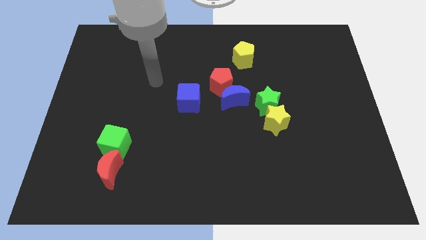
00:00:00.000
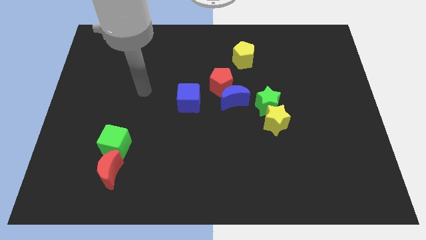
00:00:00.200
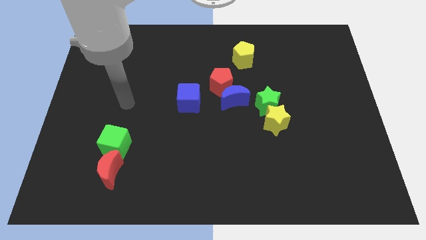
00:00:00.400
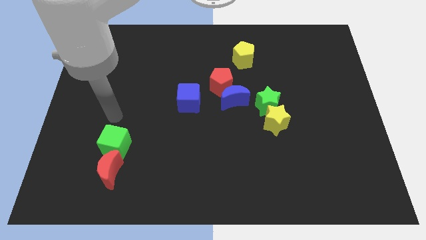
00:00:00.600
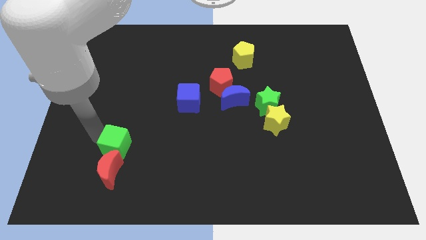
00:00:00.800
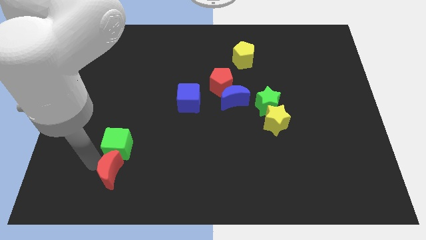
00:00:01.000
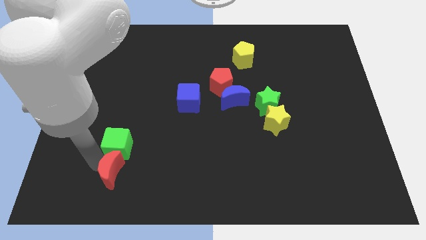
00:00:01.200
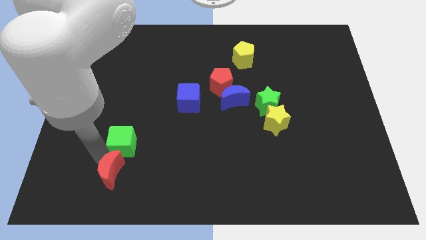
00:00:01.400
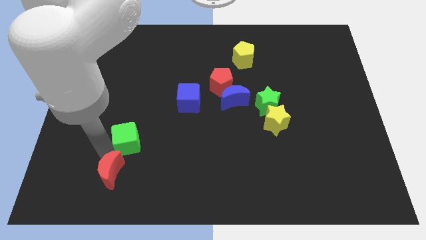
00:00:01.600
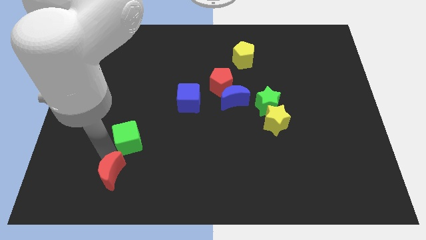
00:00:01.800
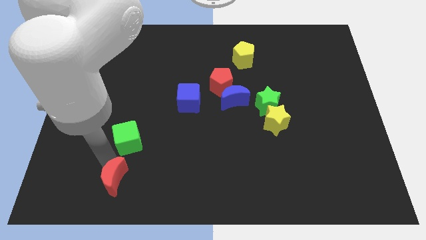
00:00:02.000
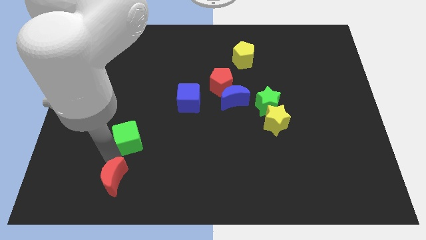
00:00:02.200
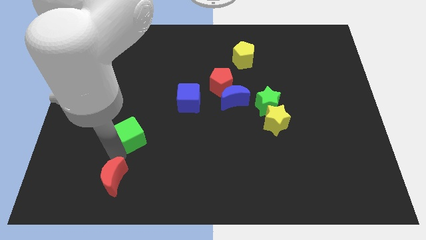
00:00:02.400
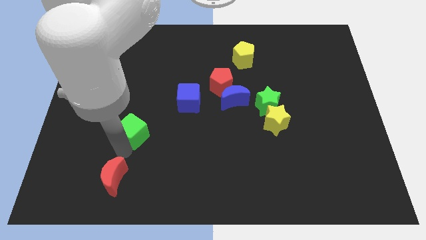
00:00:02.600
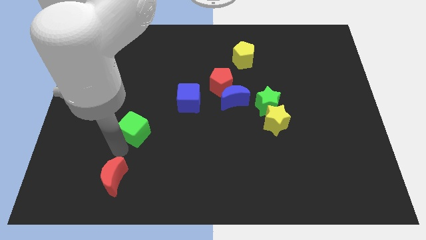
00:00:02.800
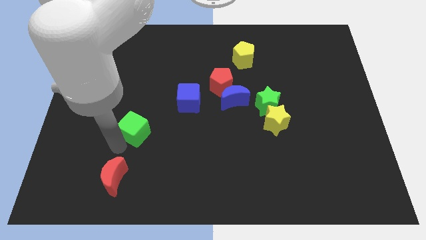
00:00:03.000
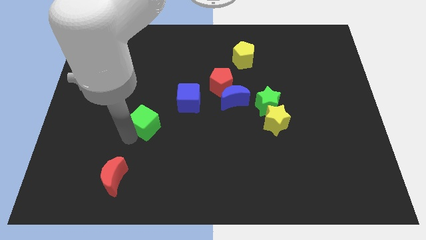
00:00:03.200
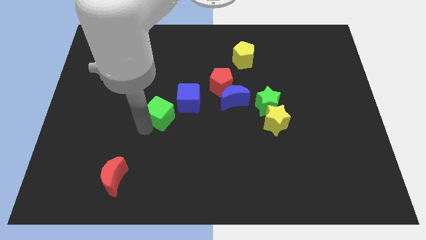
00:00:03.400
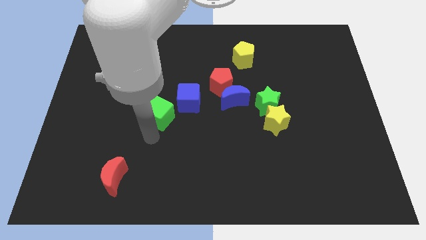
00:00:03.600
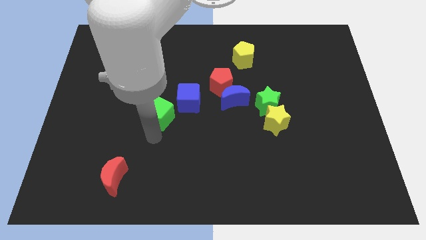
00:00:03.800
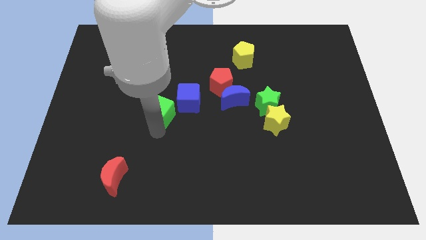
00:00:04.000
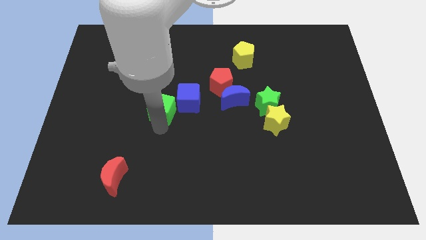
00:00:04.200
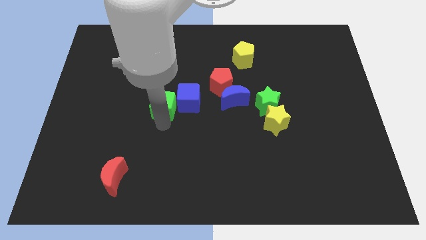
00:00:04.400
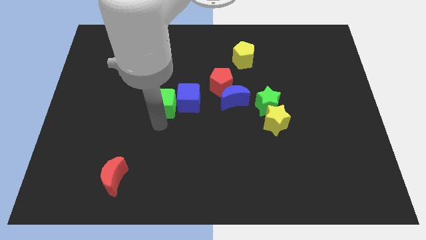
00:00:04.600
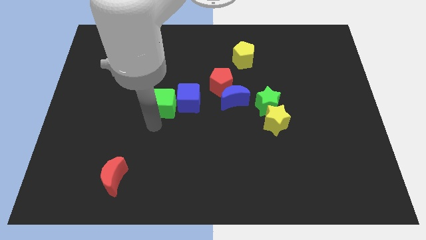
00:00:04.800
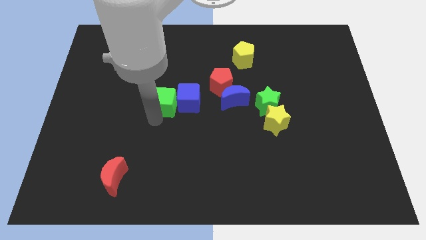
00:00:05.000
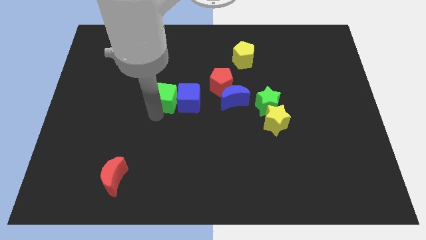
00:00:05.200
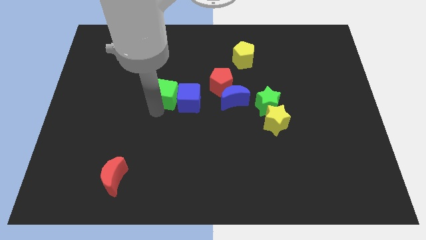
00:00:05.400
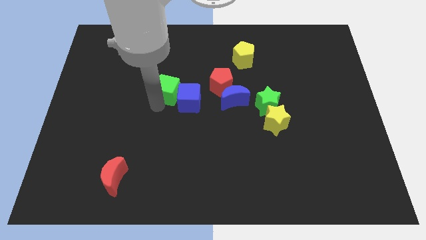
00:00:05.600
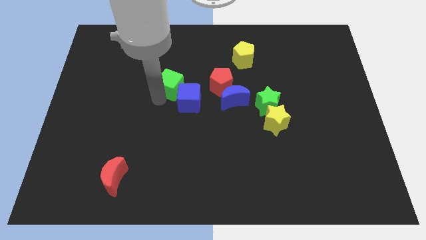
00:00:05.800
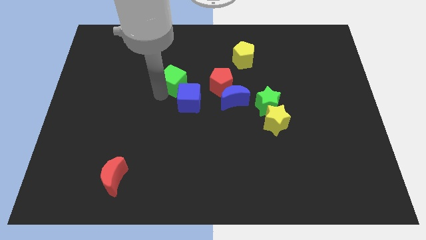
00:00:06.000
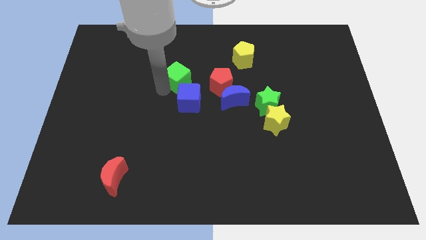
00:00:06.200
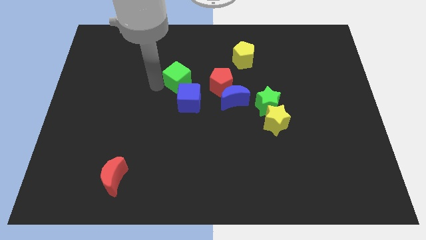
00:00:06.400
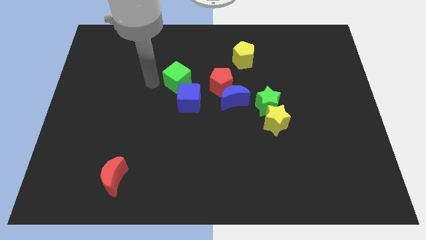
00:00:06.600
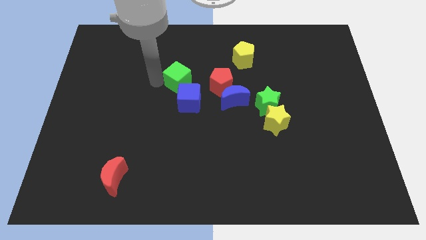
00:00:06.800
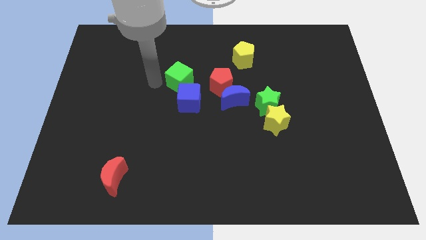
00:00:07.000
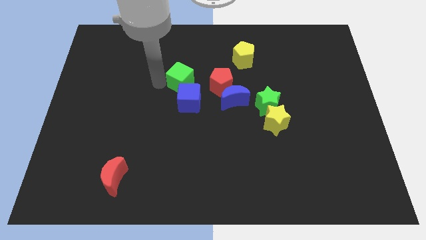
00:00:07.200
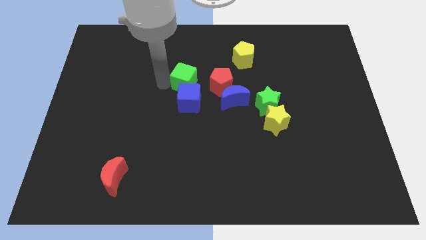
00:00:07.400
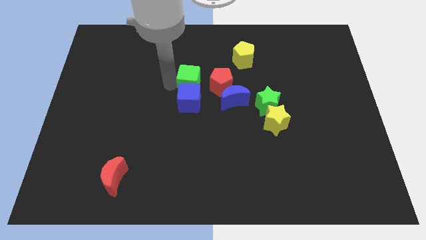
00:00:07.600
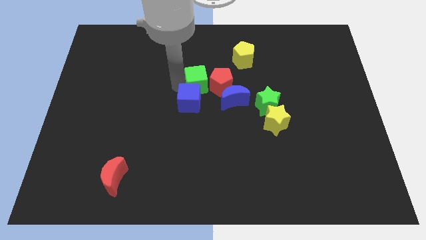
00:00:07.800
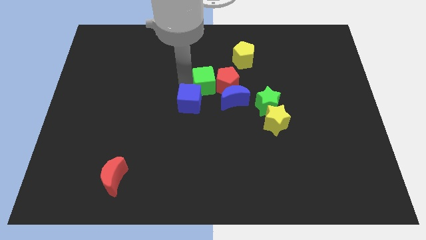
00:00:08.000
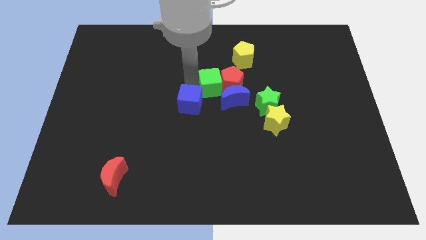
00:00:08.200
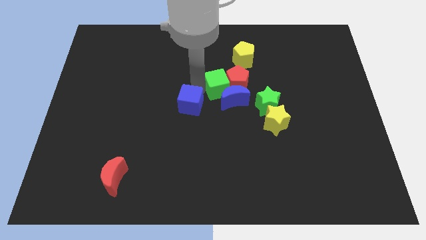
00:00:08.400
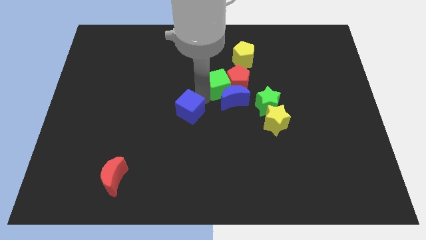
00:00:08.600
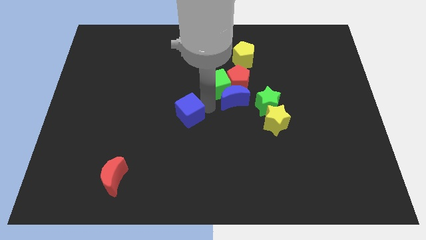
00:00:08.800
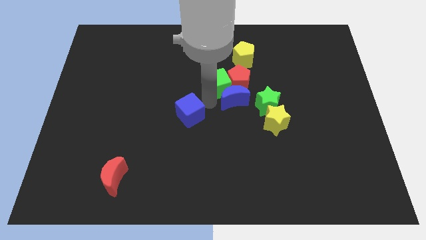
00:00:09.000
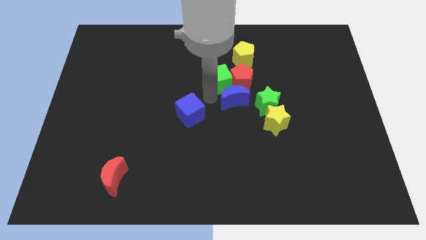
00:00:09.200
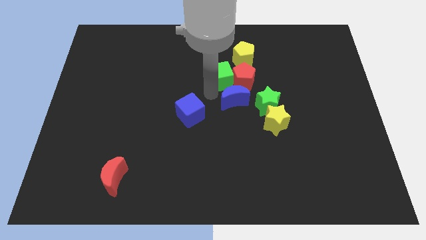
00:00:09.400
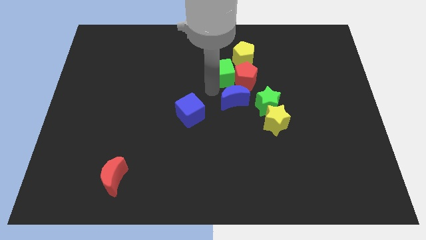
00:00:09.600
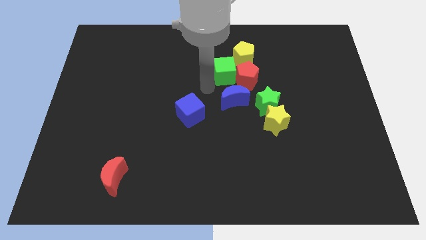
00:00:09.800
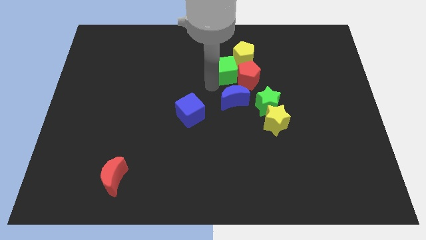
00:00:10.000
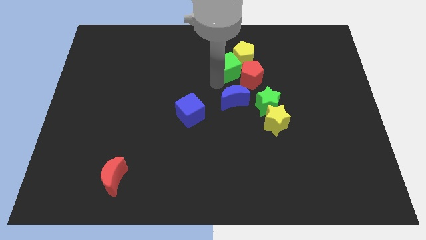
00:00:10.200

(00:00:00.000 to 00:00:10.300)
move the green cube to the yellow pentagon

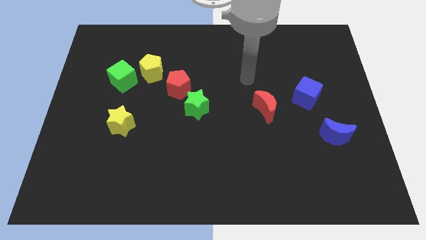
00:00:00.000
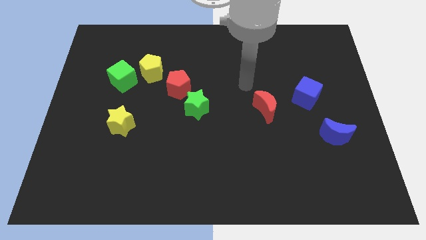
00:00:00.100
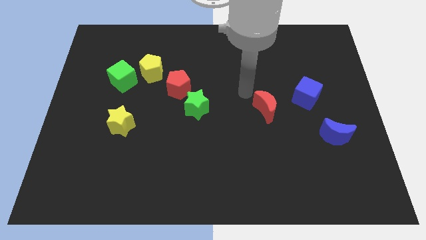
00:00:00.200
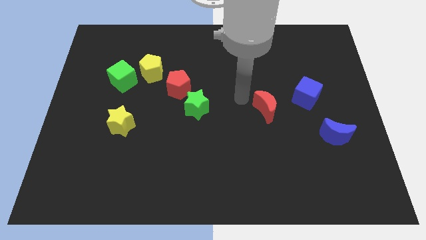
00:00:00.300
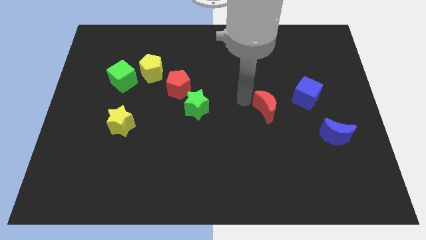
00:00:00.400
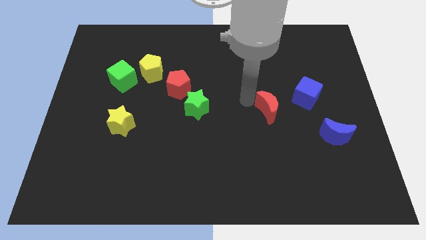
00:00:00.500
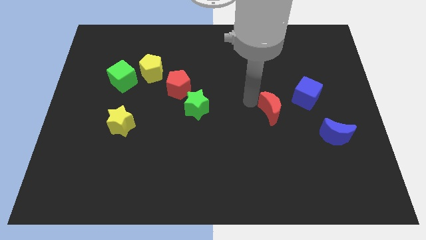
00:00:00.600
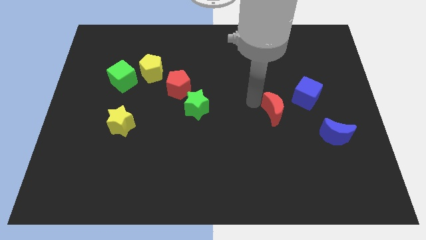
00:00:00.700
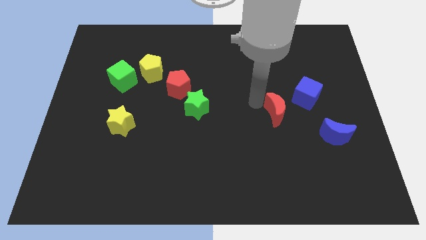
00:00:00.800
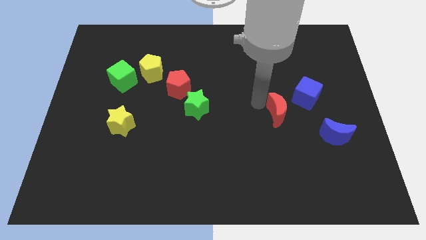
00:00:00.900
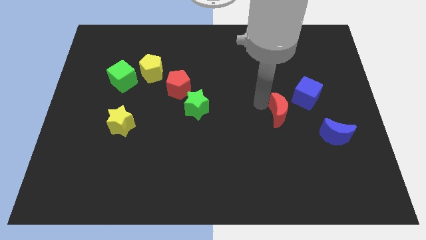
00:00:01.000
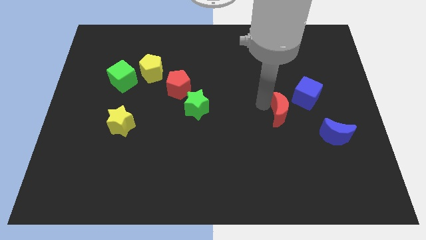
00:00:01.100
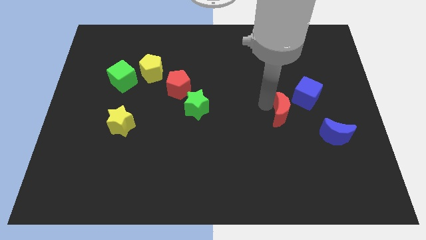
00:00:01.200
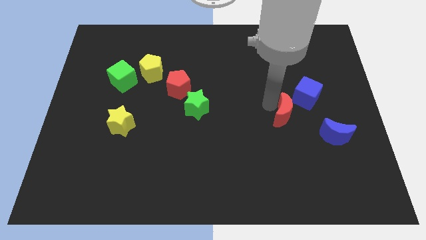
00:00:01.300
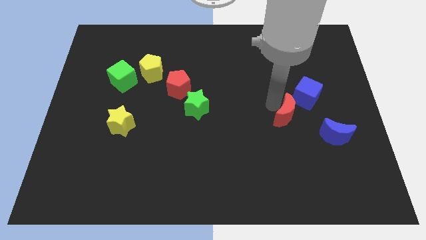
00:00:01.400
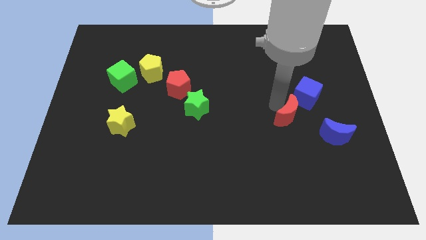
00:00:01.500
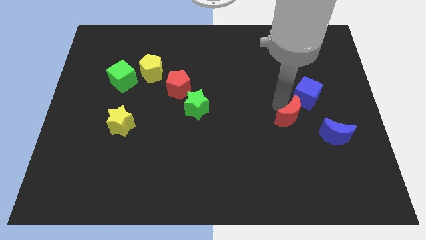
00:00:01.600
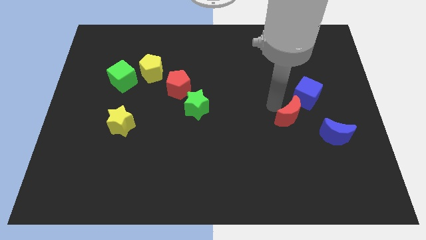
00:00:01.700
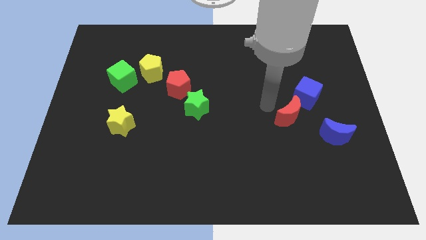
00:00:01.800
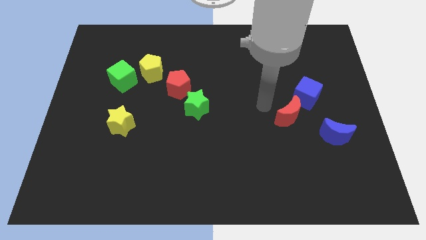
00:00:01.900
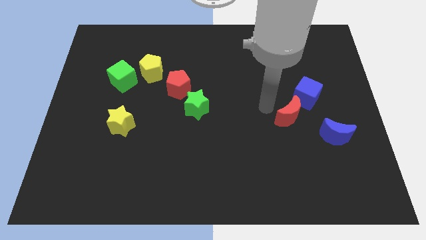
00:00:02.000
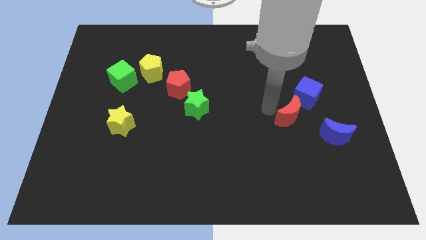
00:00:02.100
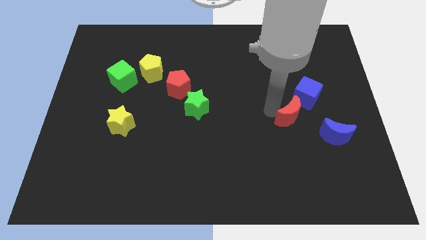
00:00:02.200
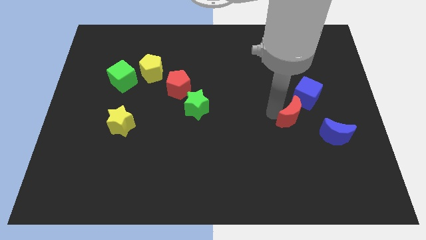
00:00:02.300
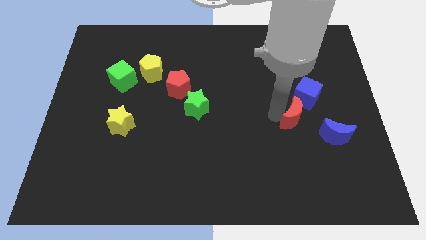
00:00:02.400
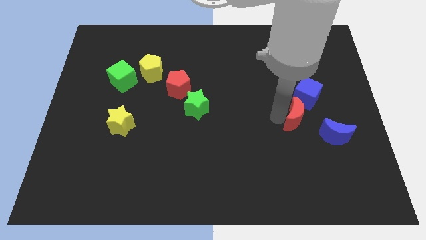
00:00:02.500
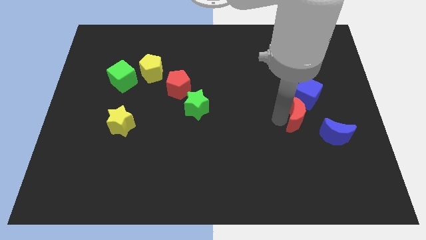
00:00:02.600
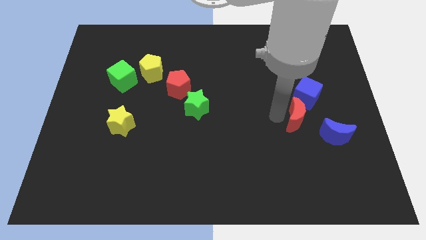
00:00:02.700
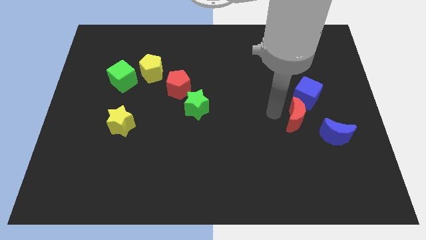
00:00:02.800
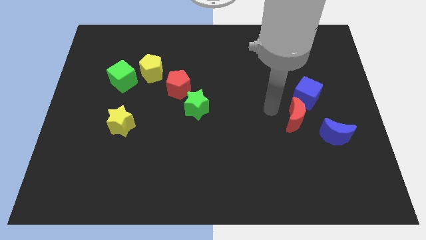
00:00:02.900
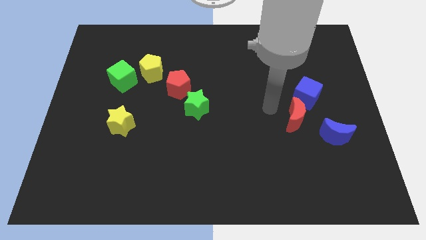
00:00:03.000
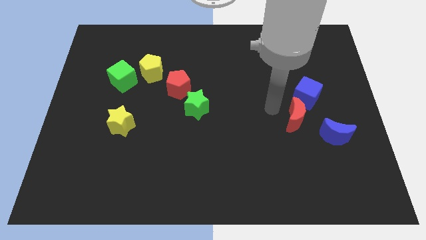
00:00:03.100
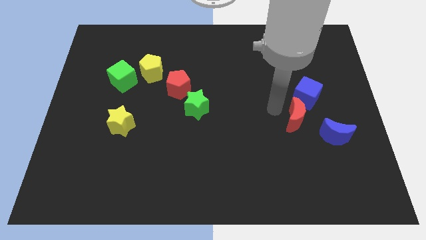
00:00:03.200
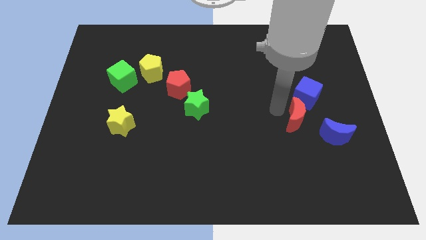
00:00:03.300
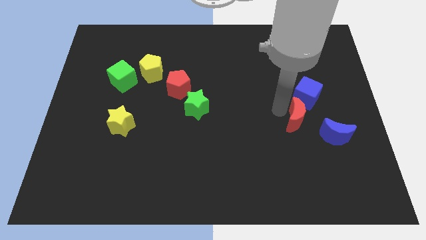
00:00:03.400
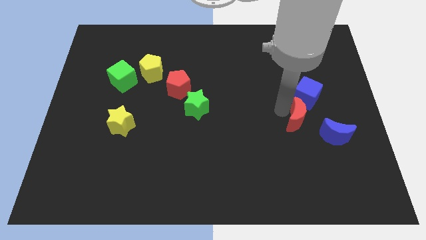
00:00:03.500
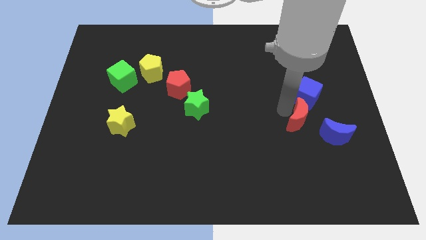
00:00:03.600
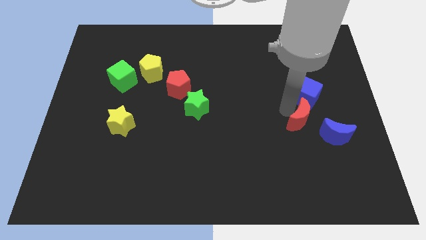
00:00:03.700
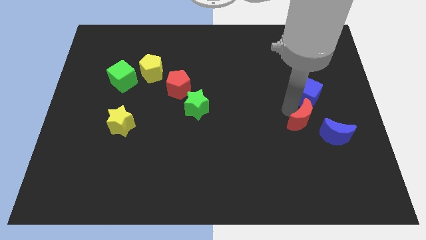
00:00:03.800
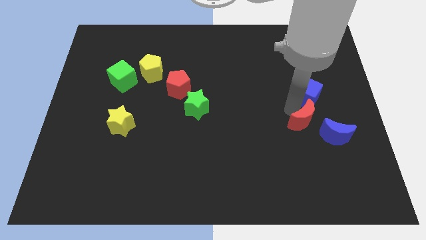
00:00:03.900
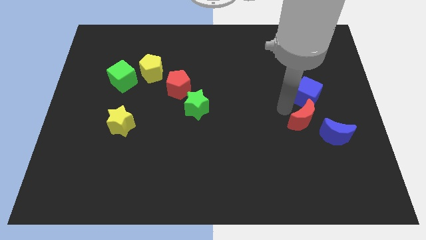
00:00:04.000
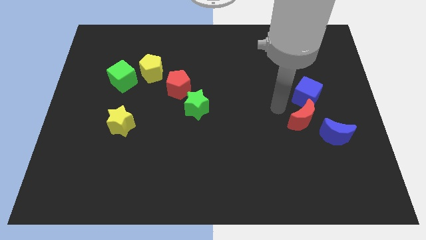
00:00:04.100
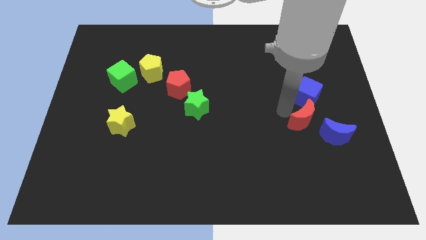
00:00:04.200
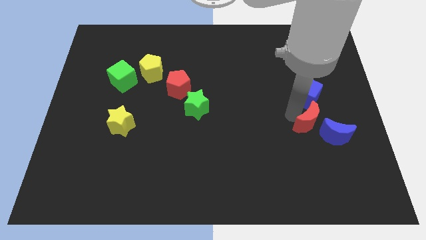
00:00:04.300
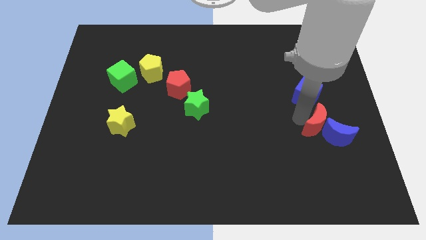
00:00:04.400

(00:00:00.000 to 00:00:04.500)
put the red moon to the blue moon
